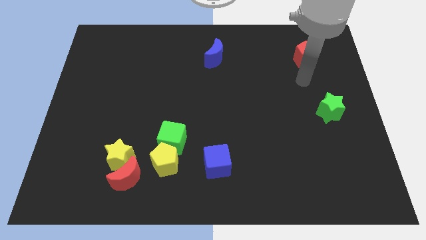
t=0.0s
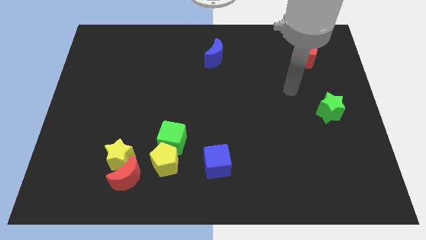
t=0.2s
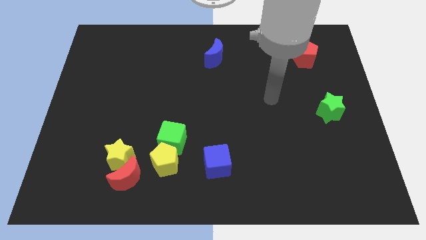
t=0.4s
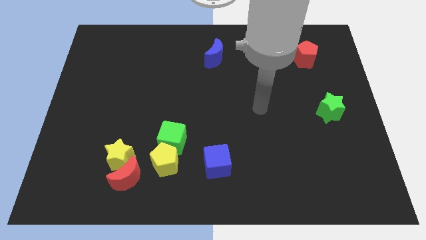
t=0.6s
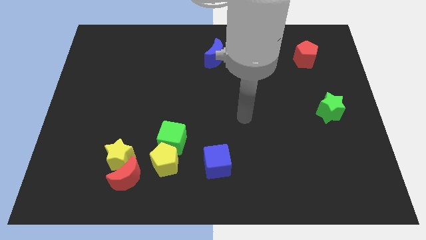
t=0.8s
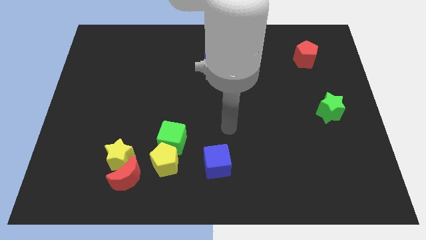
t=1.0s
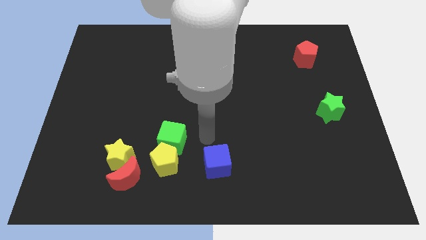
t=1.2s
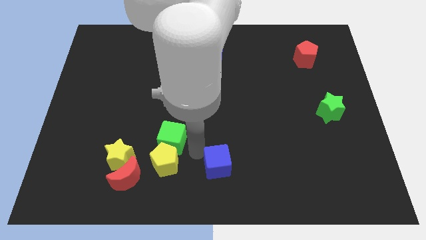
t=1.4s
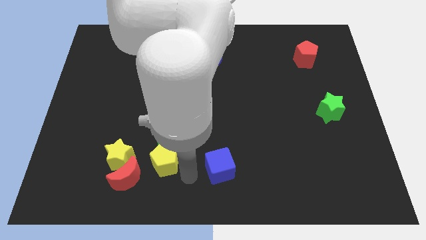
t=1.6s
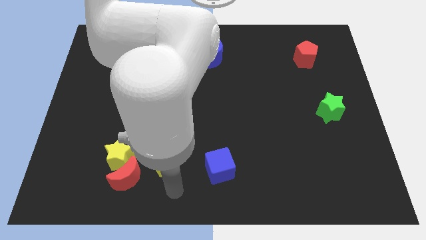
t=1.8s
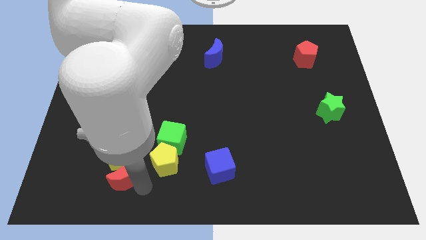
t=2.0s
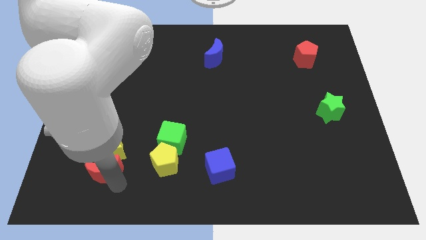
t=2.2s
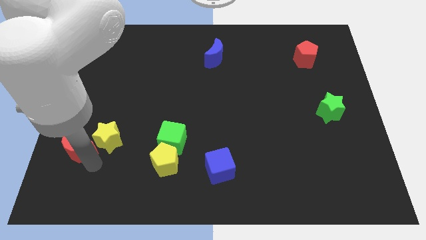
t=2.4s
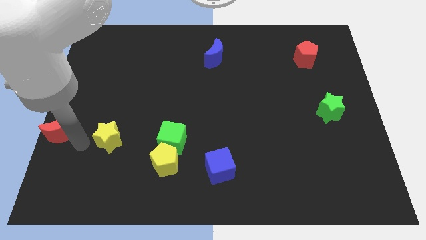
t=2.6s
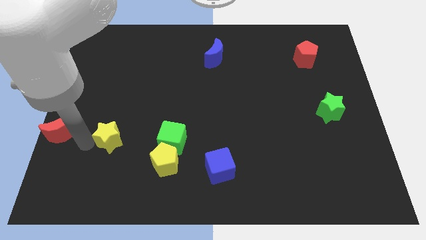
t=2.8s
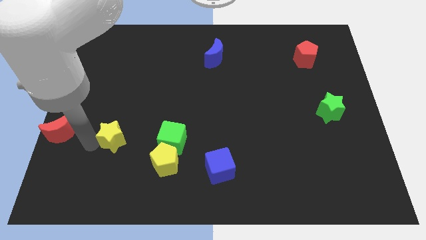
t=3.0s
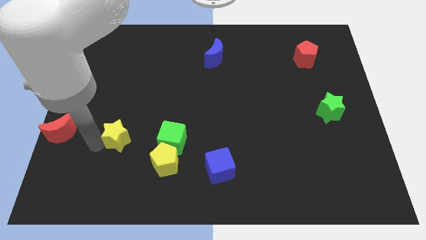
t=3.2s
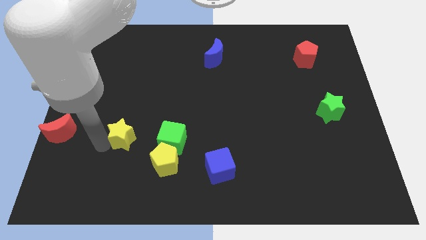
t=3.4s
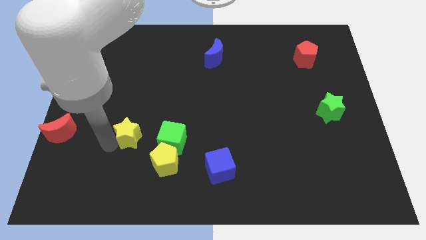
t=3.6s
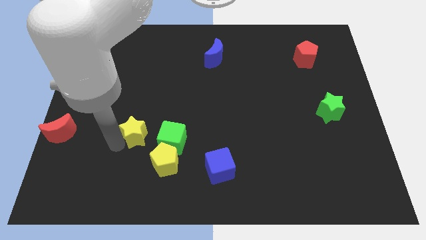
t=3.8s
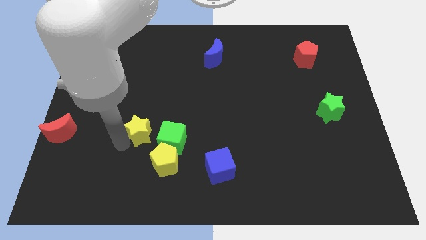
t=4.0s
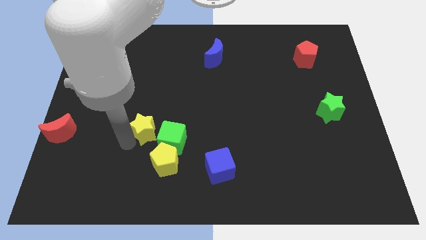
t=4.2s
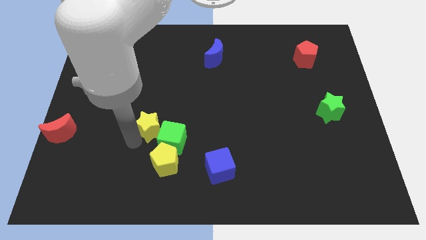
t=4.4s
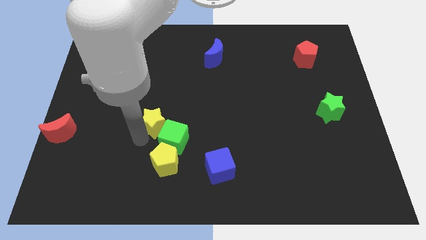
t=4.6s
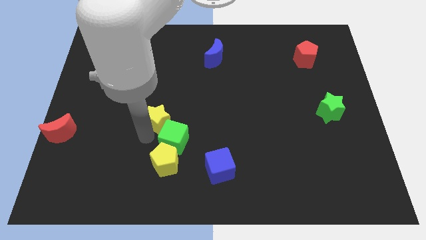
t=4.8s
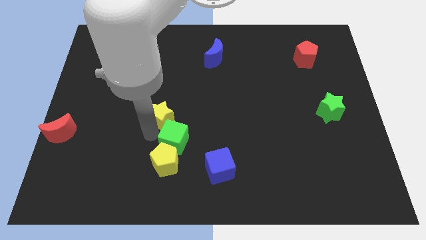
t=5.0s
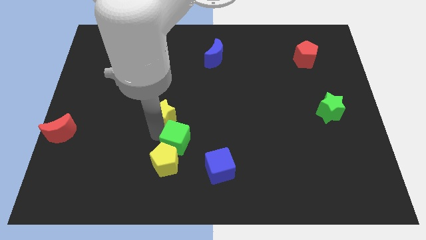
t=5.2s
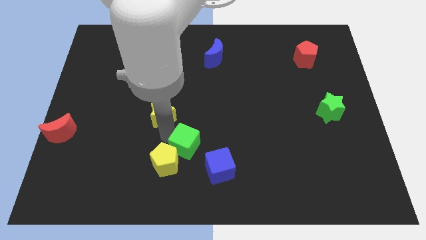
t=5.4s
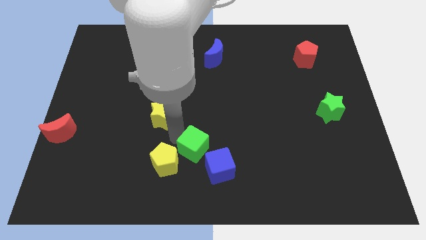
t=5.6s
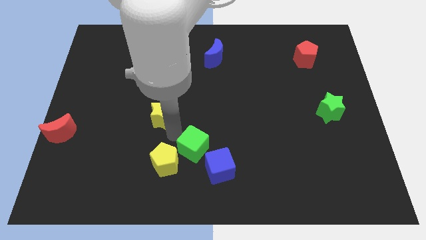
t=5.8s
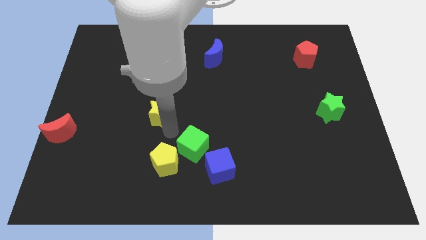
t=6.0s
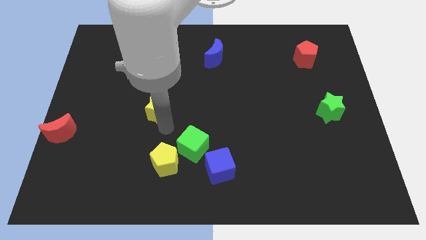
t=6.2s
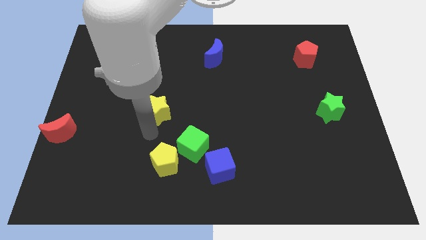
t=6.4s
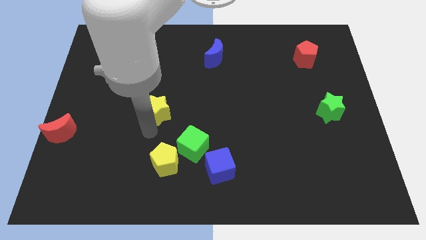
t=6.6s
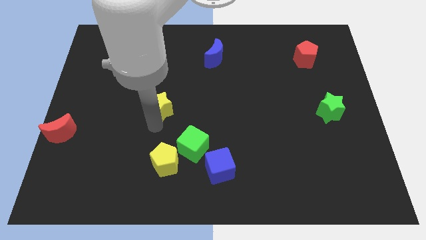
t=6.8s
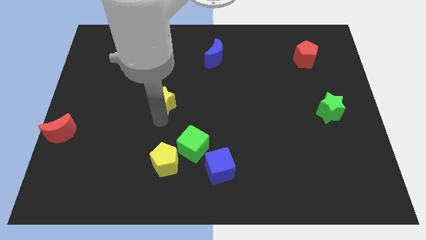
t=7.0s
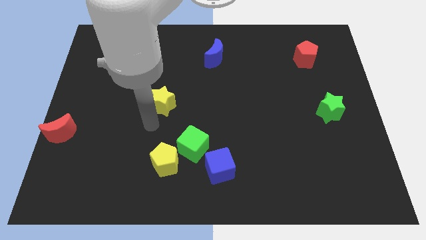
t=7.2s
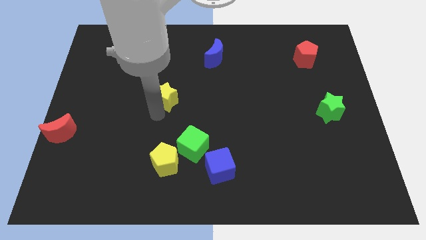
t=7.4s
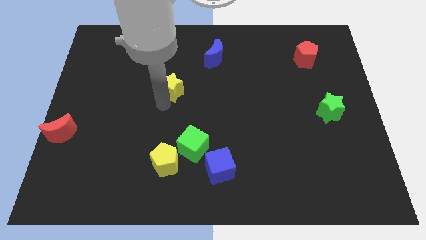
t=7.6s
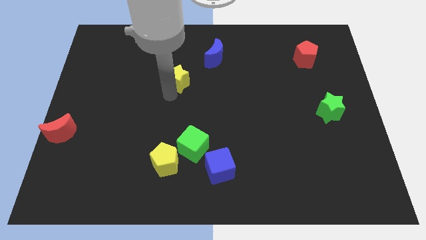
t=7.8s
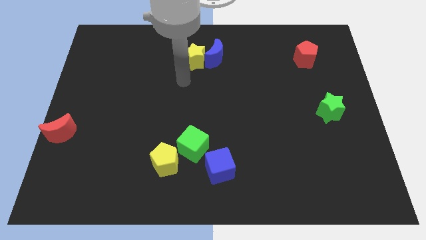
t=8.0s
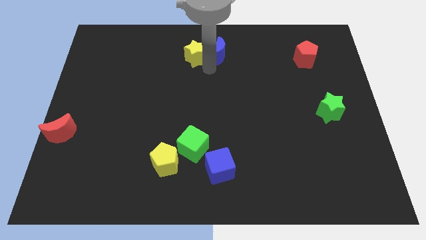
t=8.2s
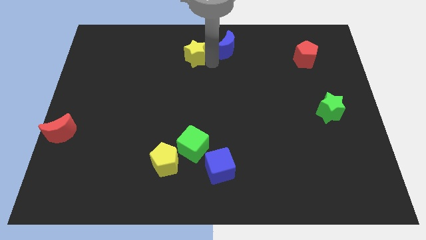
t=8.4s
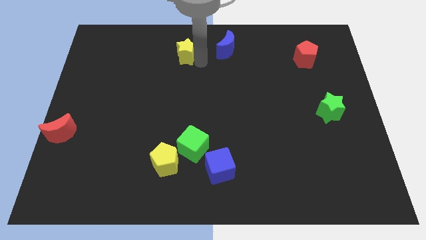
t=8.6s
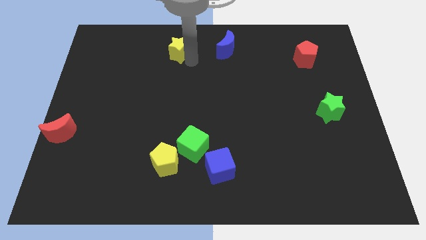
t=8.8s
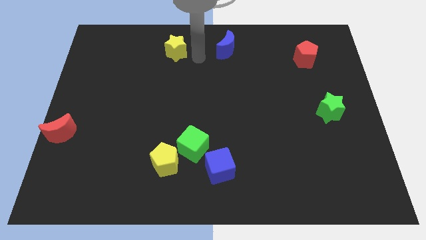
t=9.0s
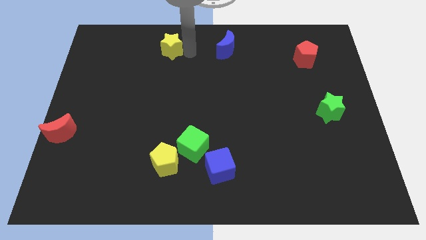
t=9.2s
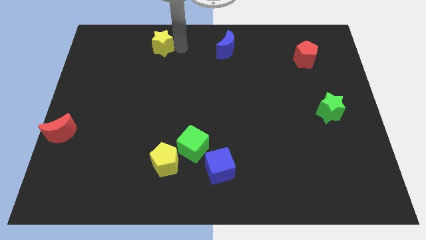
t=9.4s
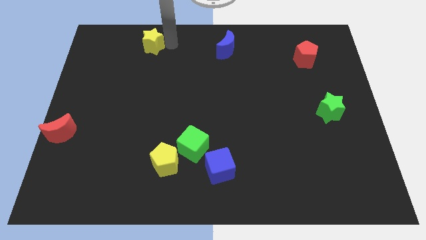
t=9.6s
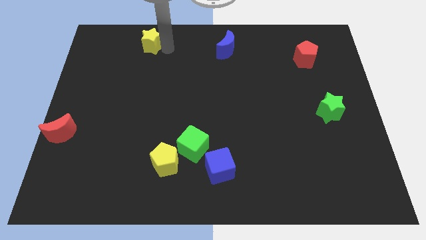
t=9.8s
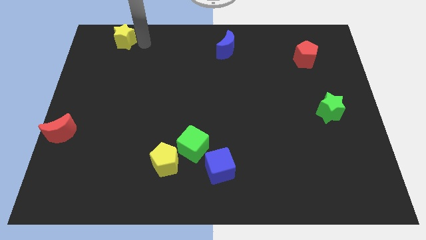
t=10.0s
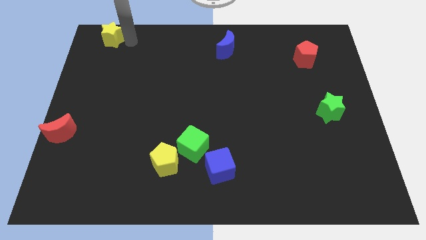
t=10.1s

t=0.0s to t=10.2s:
put the yellow star to the top left corner

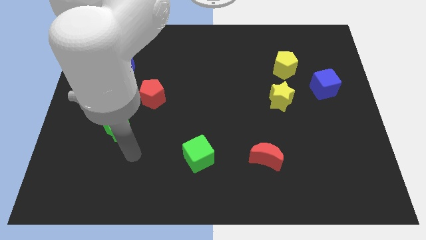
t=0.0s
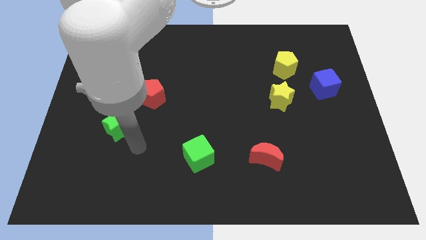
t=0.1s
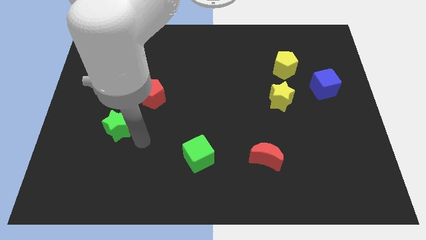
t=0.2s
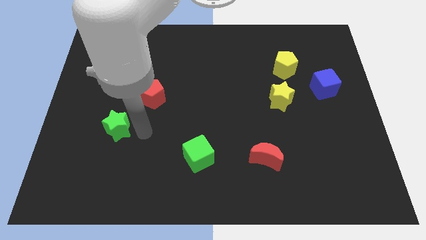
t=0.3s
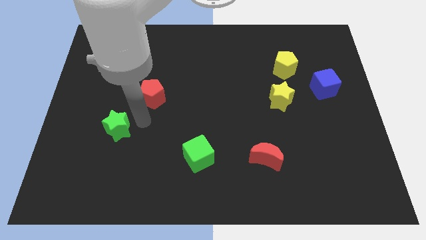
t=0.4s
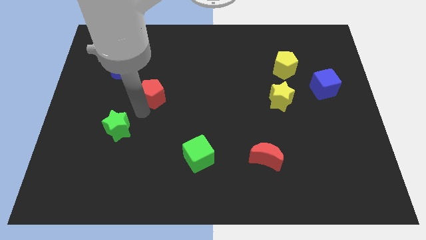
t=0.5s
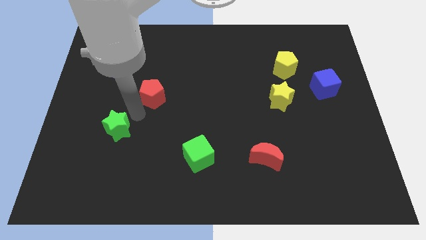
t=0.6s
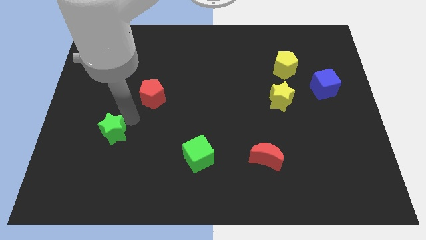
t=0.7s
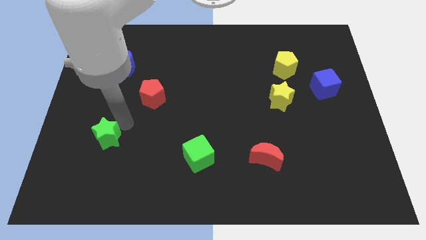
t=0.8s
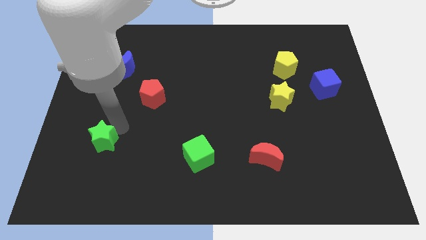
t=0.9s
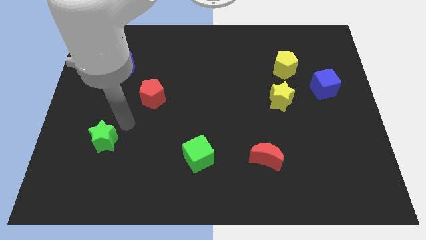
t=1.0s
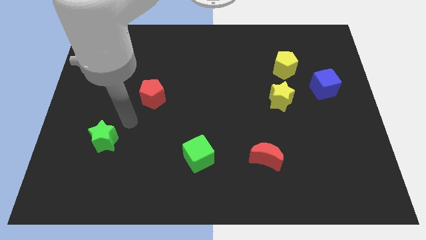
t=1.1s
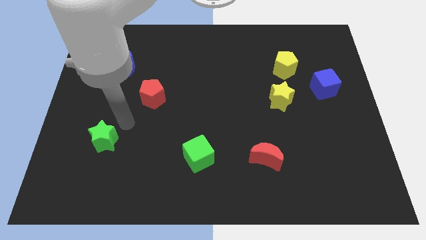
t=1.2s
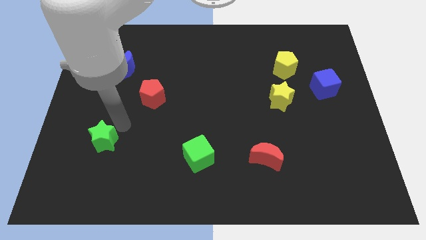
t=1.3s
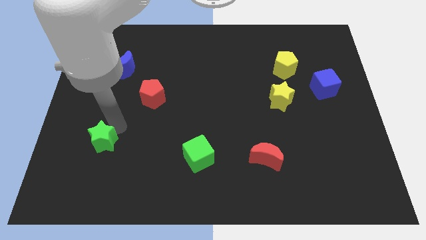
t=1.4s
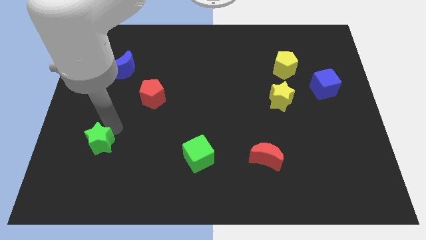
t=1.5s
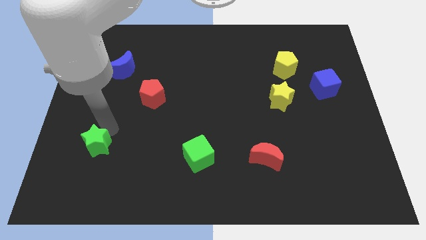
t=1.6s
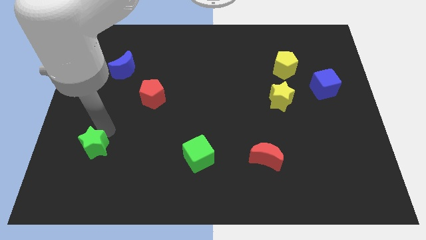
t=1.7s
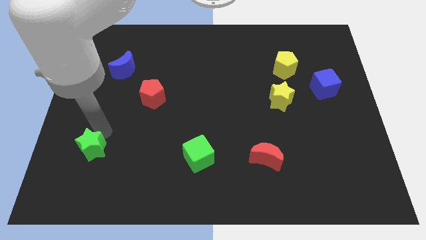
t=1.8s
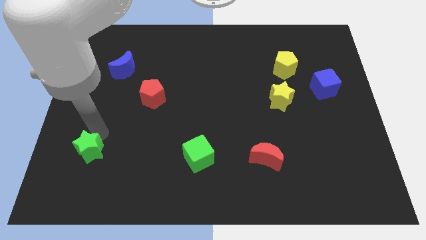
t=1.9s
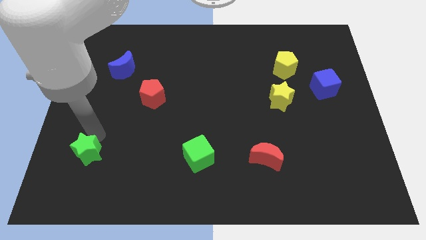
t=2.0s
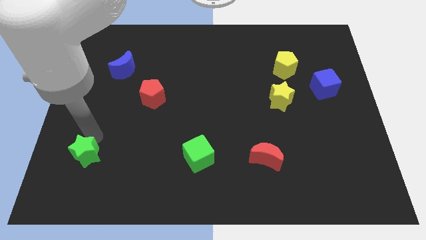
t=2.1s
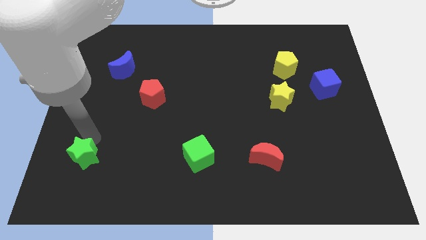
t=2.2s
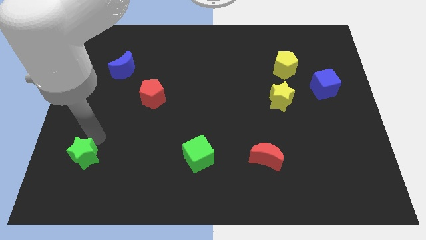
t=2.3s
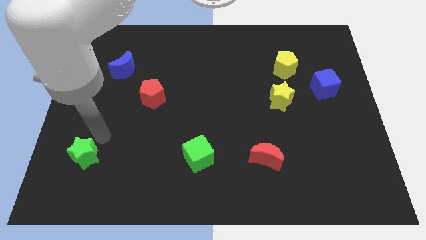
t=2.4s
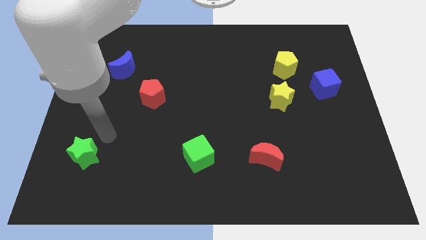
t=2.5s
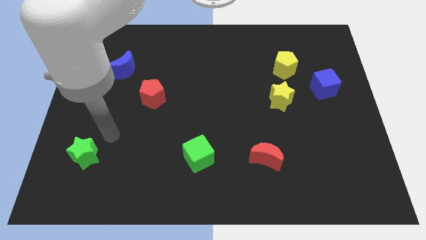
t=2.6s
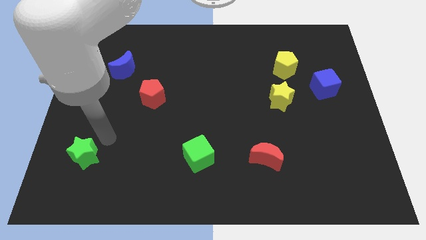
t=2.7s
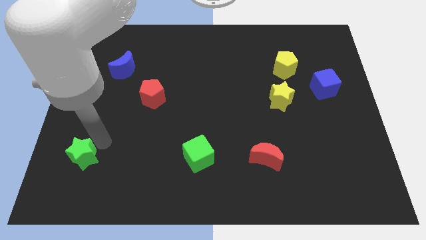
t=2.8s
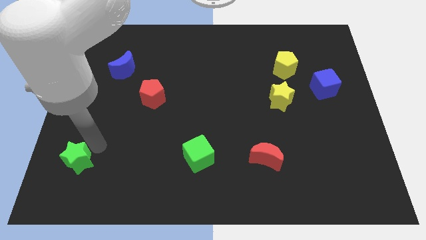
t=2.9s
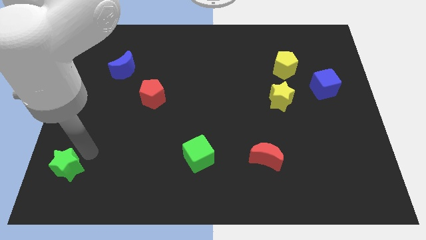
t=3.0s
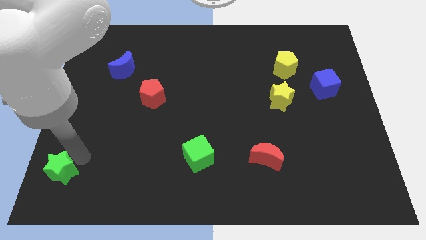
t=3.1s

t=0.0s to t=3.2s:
push the green star to the lower left corner

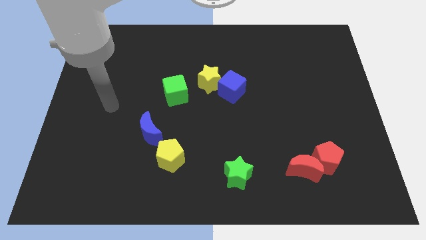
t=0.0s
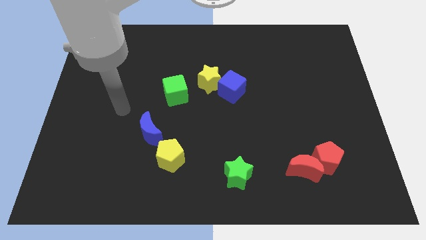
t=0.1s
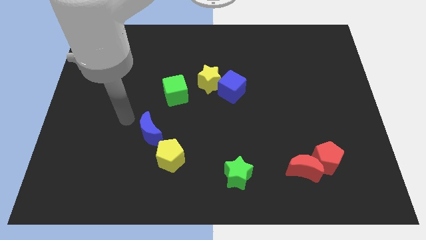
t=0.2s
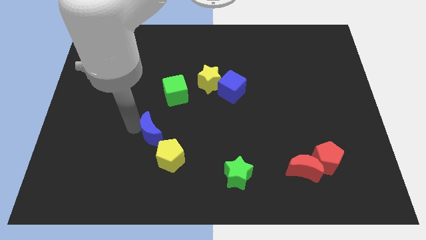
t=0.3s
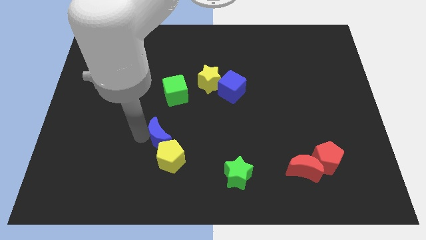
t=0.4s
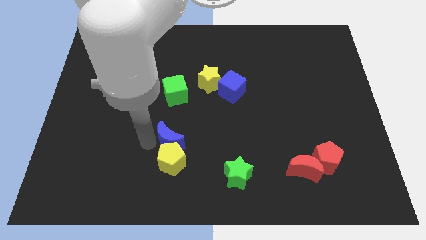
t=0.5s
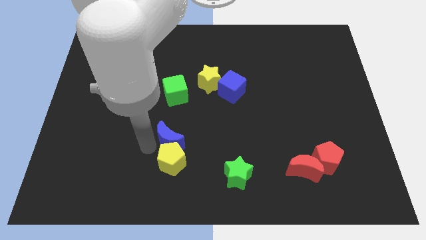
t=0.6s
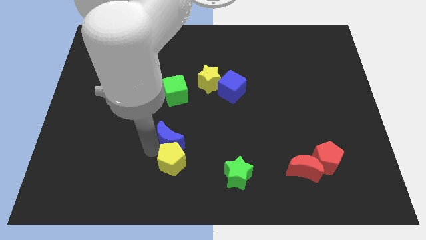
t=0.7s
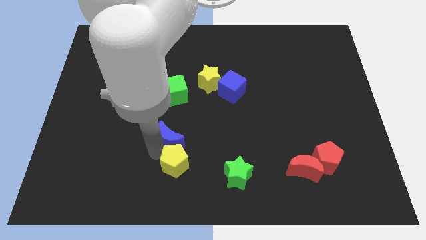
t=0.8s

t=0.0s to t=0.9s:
slide the yellow pentagon to the bottom
